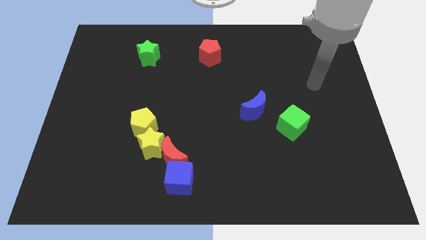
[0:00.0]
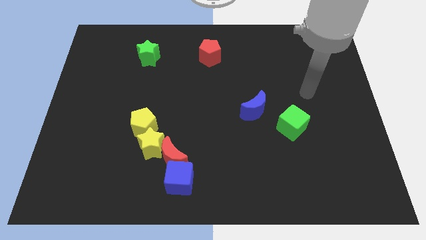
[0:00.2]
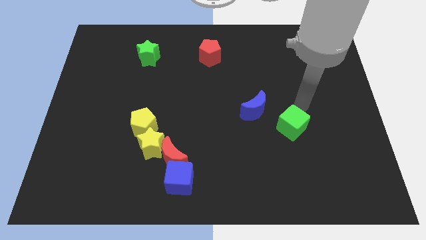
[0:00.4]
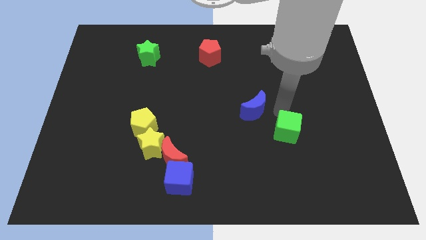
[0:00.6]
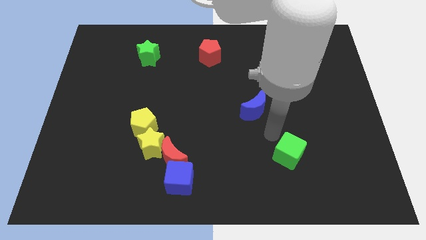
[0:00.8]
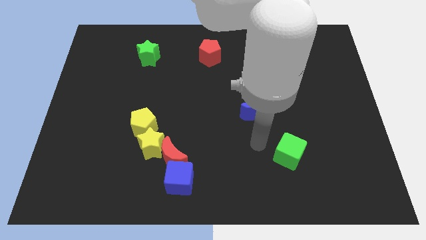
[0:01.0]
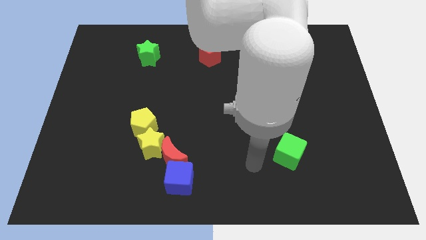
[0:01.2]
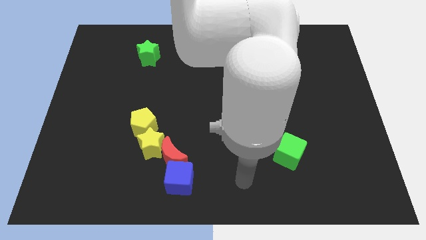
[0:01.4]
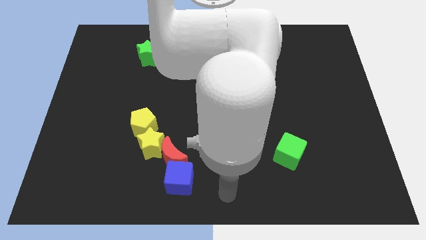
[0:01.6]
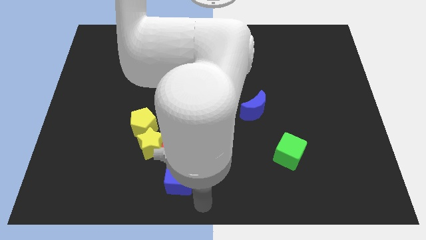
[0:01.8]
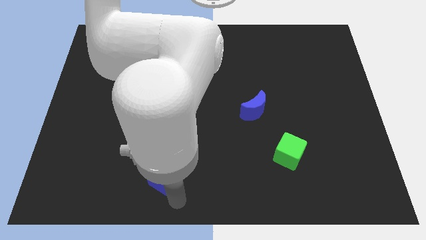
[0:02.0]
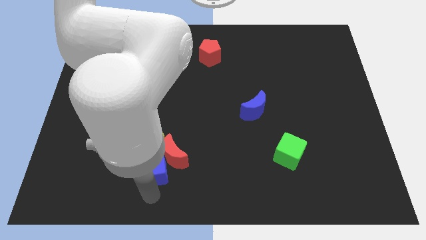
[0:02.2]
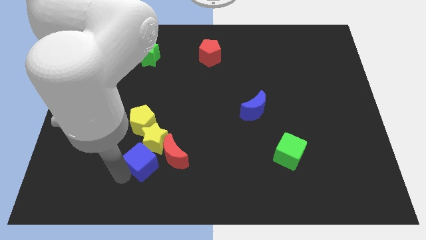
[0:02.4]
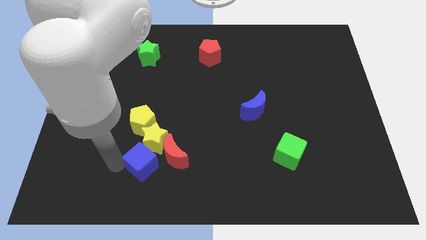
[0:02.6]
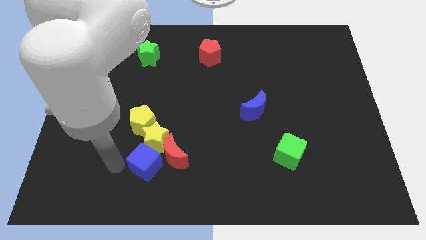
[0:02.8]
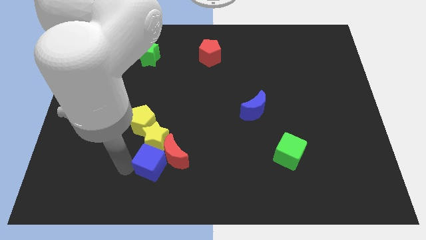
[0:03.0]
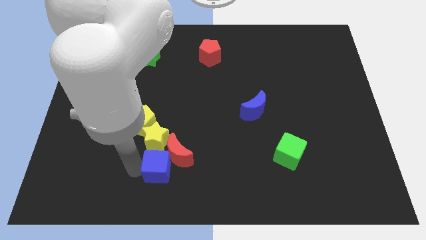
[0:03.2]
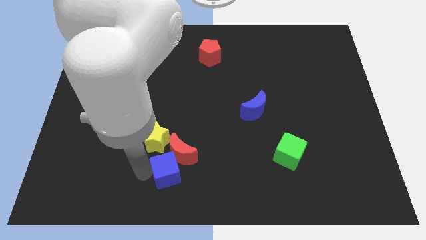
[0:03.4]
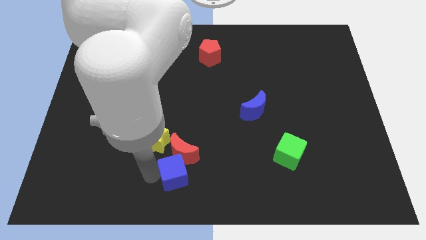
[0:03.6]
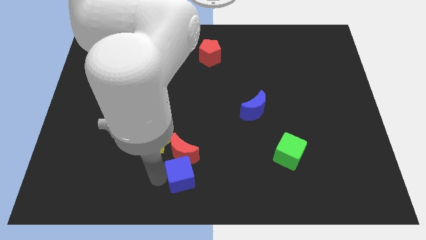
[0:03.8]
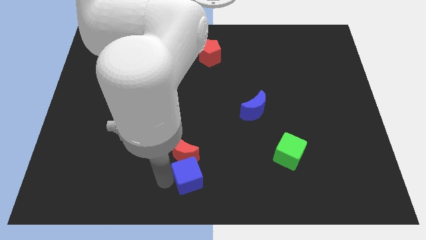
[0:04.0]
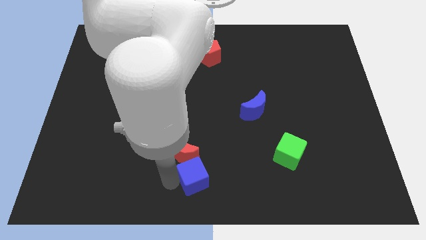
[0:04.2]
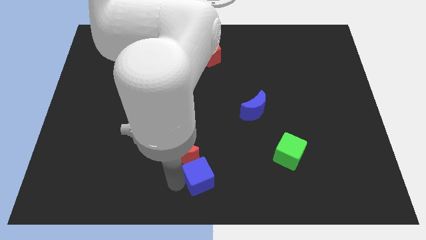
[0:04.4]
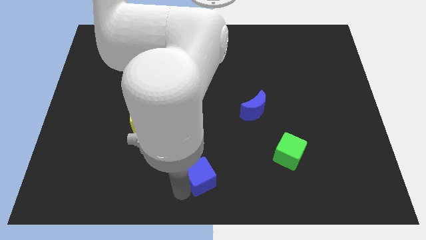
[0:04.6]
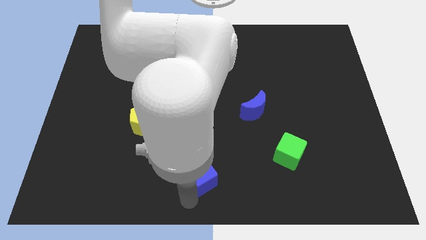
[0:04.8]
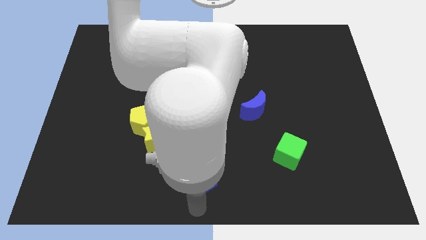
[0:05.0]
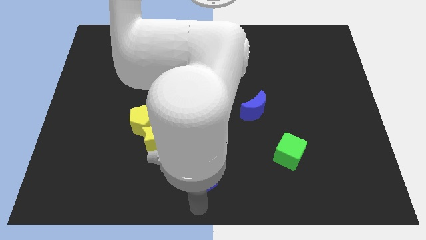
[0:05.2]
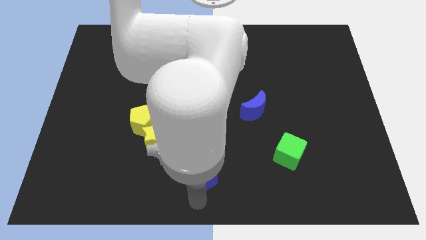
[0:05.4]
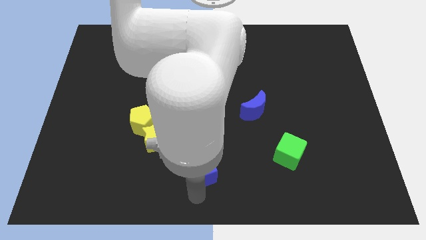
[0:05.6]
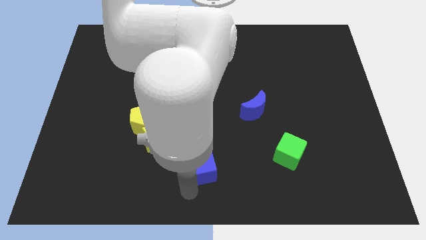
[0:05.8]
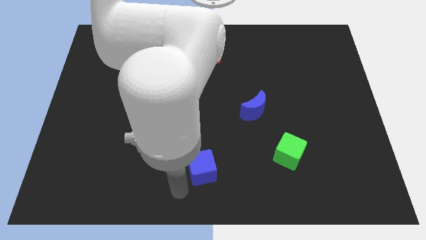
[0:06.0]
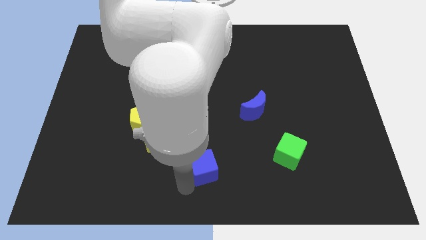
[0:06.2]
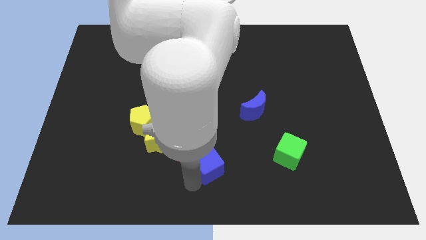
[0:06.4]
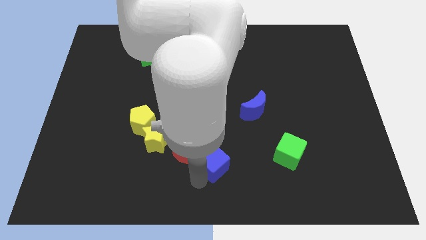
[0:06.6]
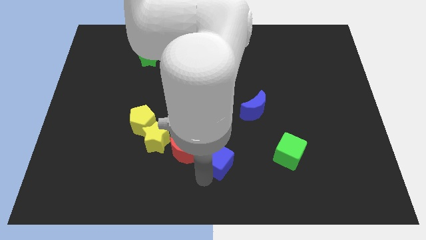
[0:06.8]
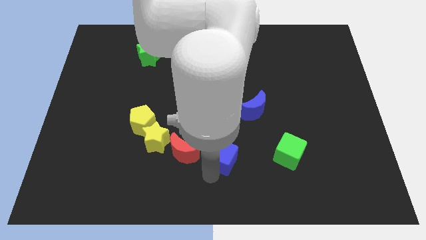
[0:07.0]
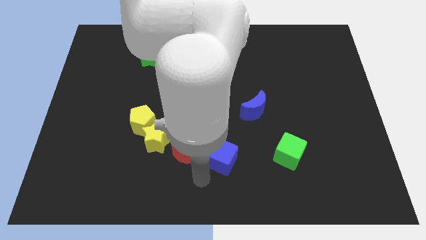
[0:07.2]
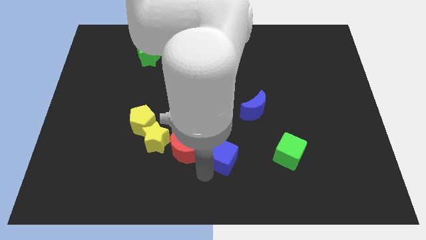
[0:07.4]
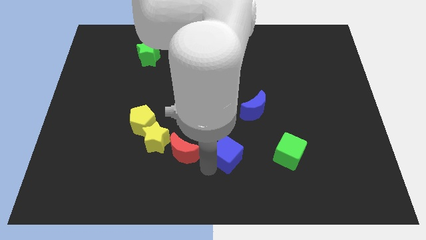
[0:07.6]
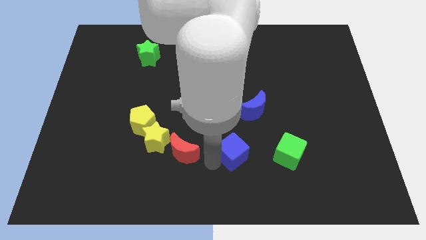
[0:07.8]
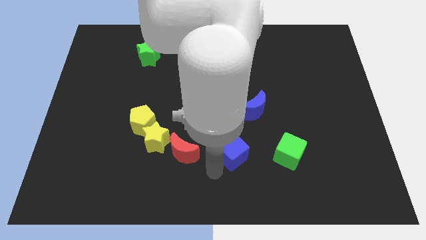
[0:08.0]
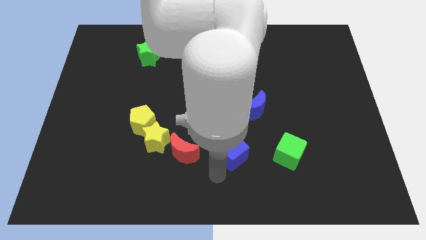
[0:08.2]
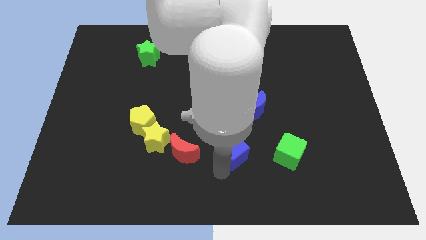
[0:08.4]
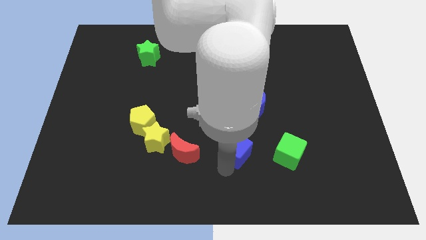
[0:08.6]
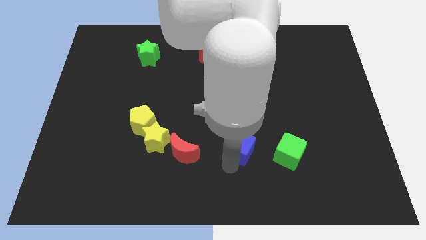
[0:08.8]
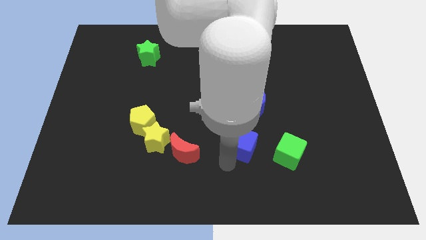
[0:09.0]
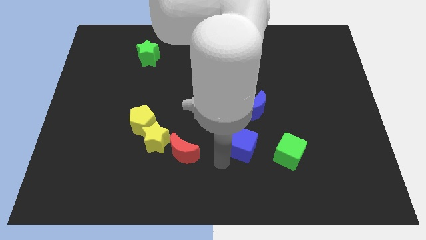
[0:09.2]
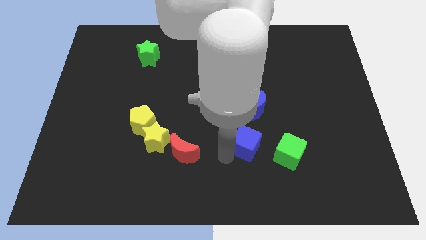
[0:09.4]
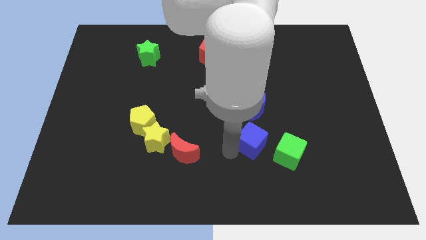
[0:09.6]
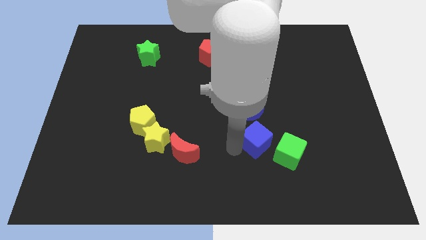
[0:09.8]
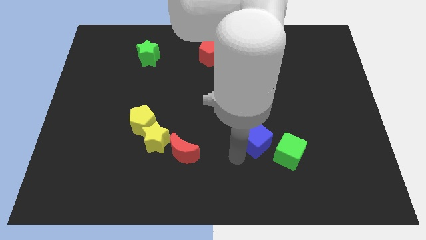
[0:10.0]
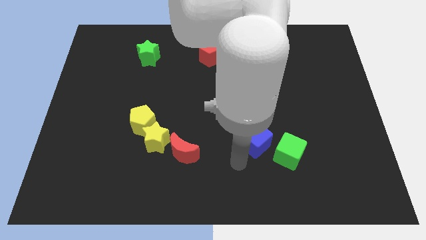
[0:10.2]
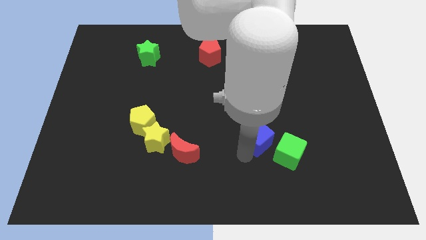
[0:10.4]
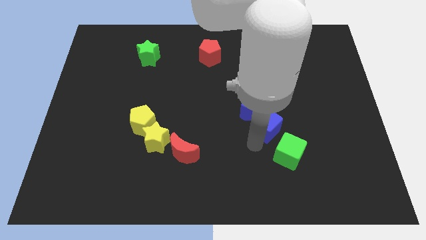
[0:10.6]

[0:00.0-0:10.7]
slide the blue cube diagonally upwards and to the right

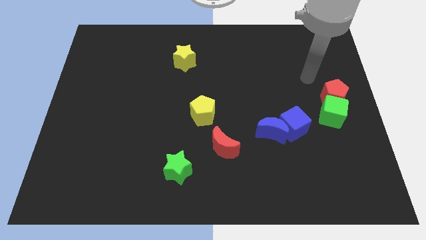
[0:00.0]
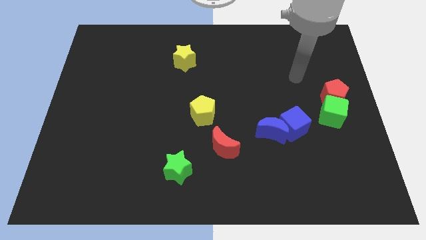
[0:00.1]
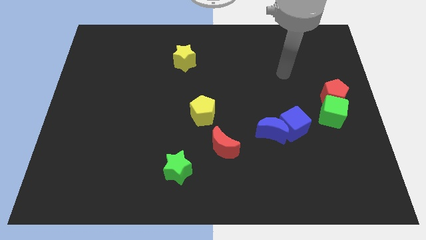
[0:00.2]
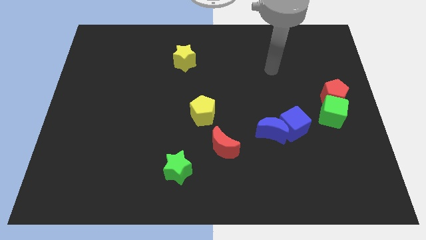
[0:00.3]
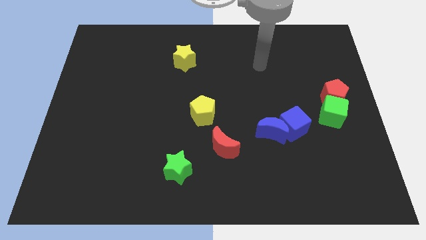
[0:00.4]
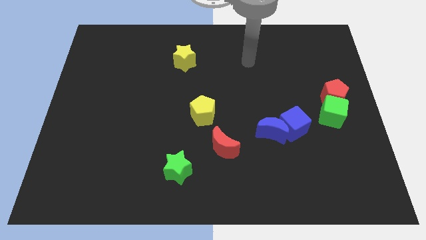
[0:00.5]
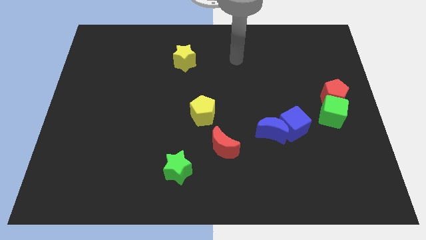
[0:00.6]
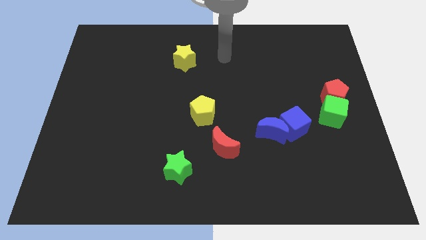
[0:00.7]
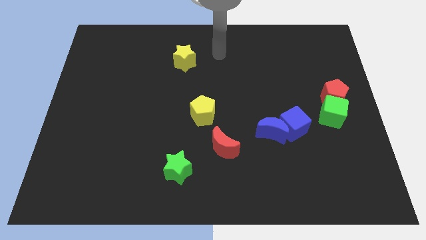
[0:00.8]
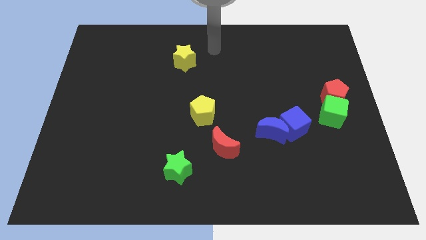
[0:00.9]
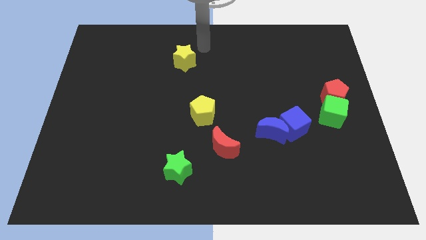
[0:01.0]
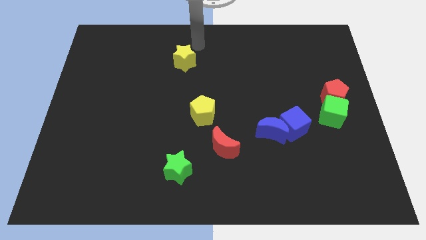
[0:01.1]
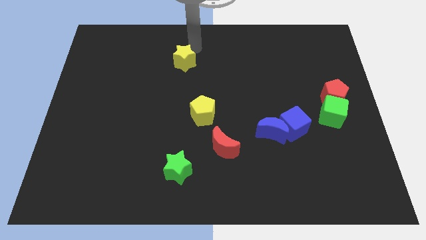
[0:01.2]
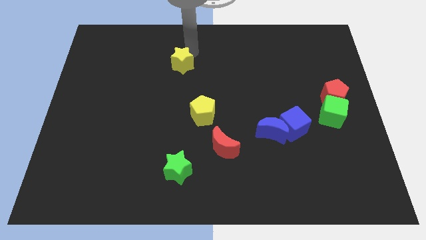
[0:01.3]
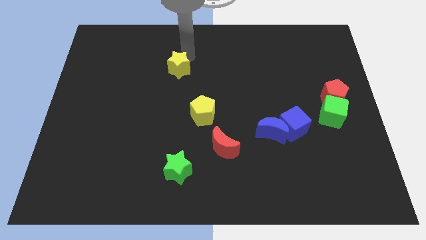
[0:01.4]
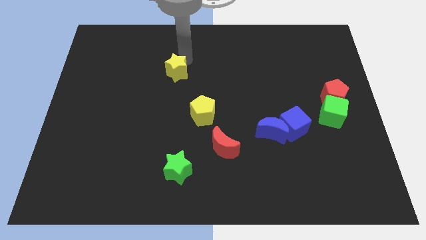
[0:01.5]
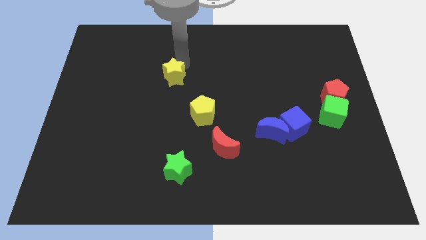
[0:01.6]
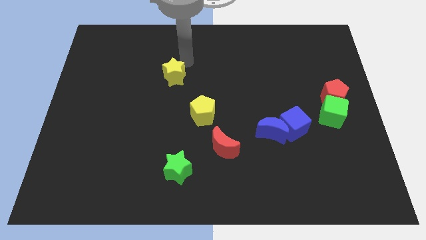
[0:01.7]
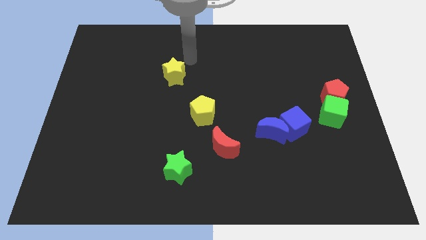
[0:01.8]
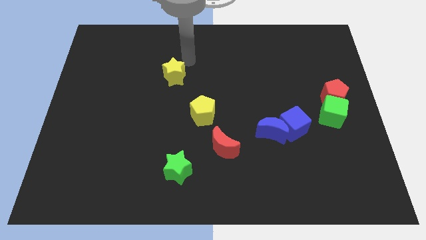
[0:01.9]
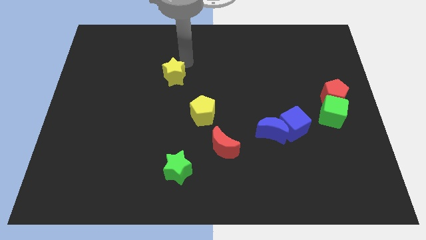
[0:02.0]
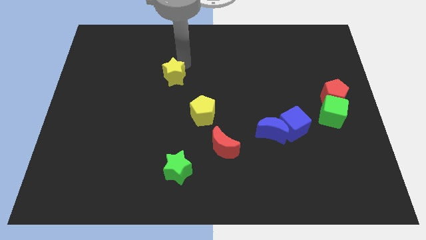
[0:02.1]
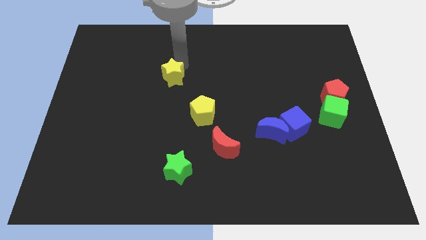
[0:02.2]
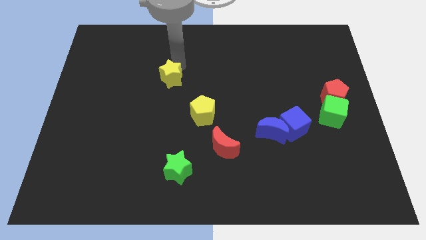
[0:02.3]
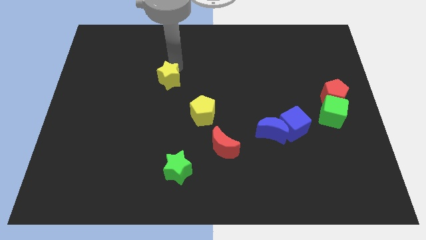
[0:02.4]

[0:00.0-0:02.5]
move the yellow star downwards and then to the left somewhat
